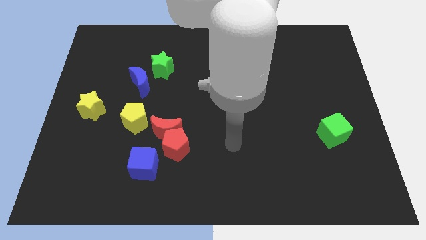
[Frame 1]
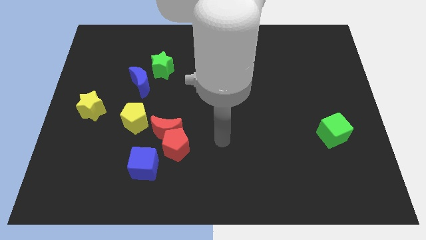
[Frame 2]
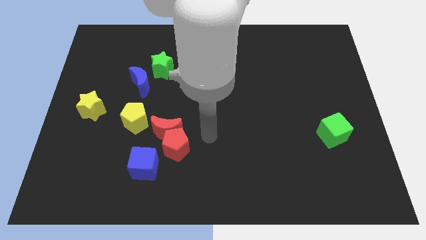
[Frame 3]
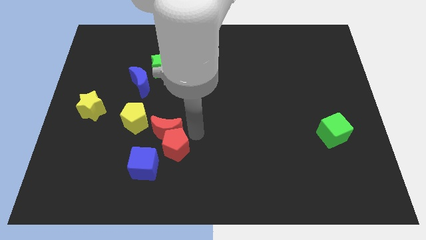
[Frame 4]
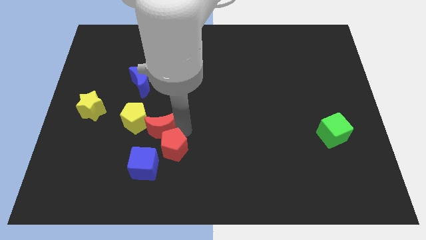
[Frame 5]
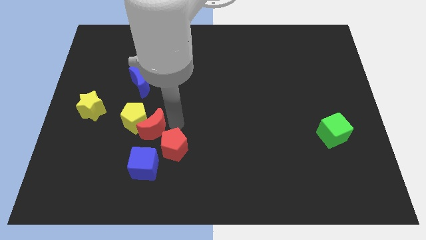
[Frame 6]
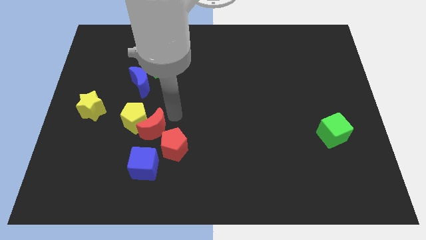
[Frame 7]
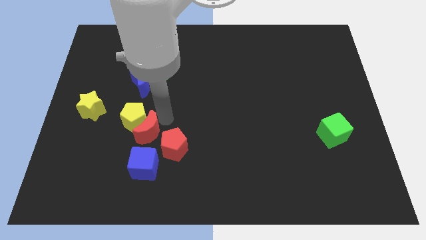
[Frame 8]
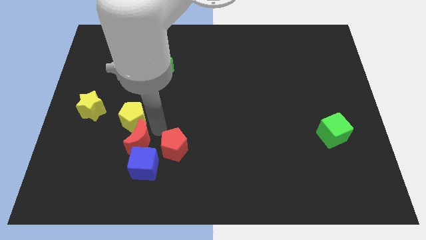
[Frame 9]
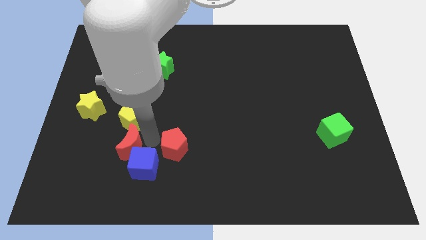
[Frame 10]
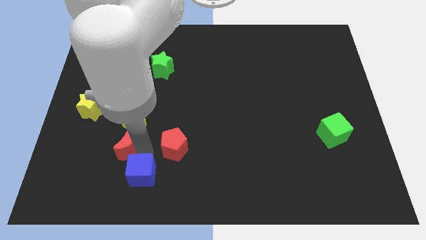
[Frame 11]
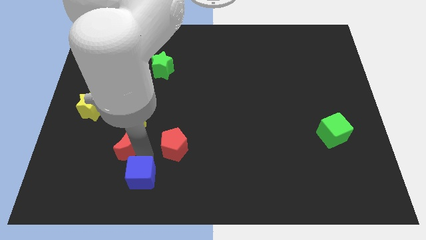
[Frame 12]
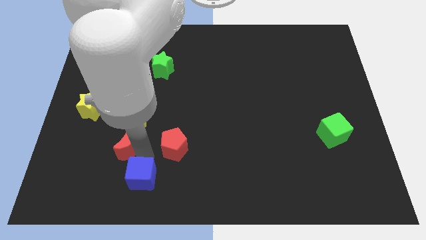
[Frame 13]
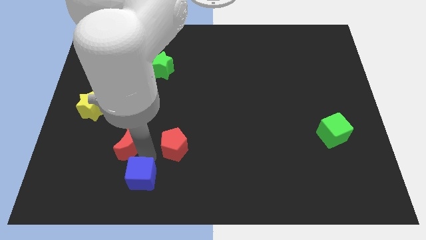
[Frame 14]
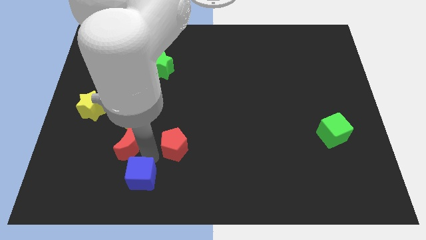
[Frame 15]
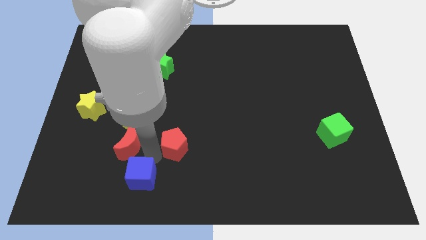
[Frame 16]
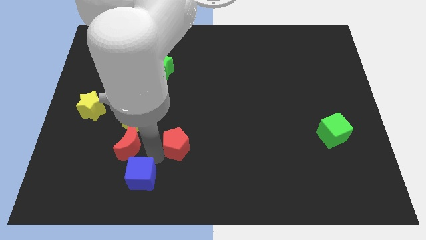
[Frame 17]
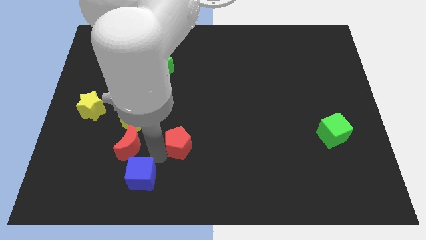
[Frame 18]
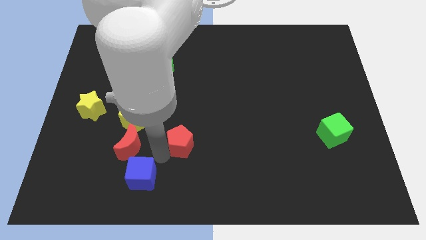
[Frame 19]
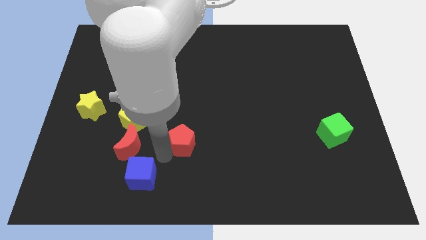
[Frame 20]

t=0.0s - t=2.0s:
separate the red pentagon from the red moon and blue cube

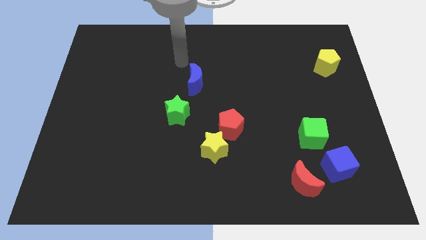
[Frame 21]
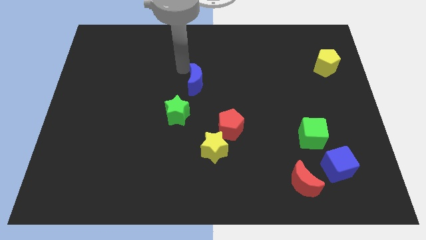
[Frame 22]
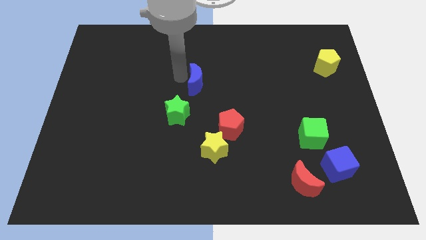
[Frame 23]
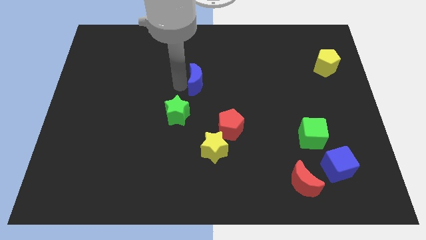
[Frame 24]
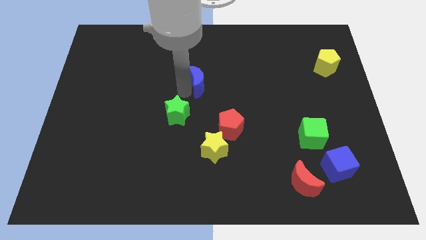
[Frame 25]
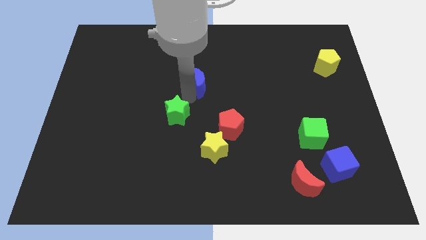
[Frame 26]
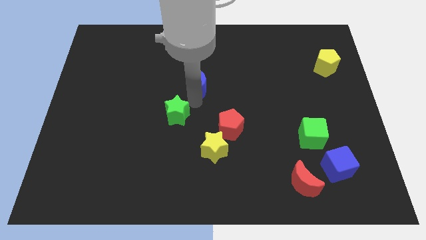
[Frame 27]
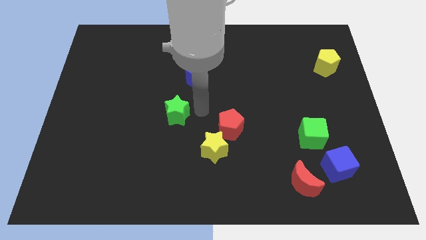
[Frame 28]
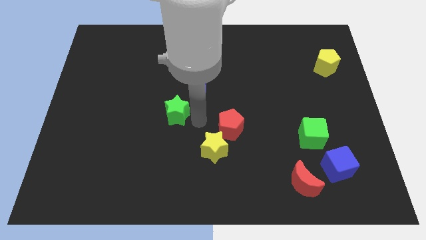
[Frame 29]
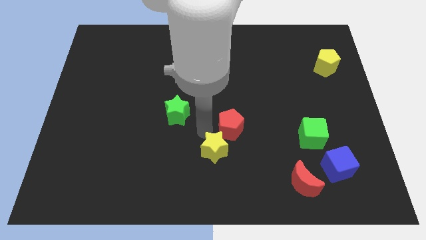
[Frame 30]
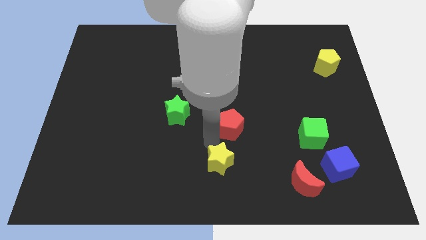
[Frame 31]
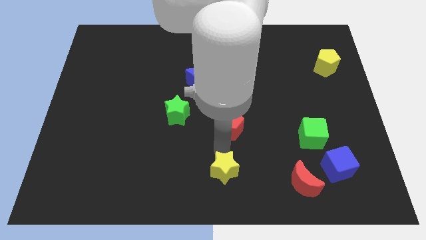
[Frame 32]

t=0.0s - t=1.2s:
separate the red pentagon from the yellow star

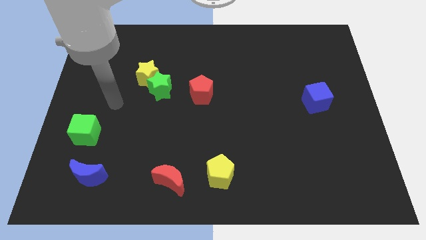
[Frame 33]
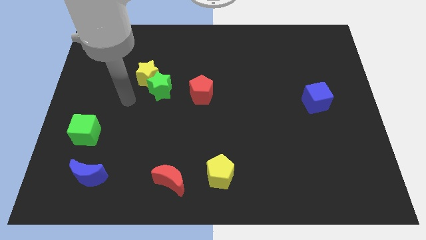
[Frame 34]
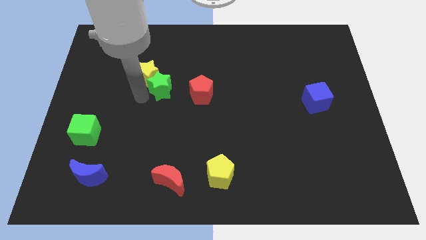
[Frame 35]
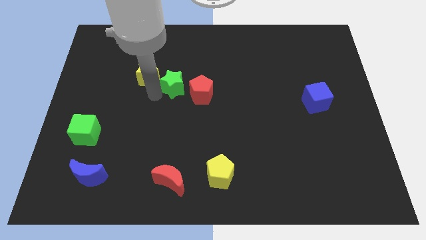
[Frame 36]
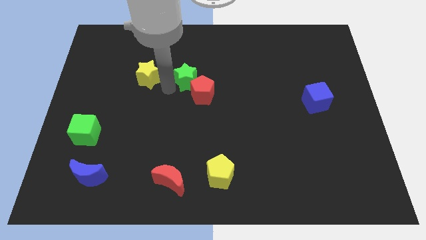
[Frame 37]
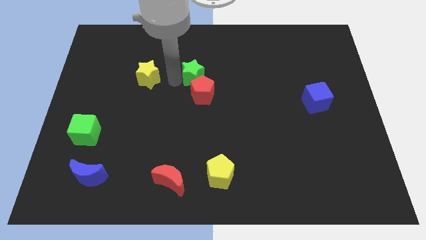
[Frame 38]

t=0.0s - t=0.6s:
separate the yellow star from the green star

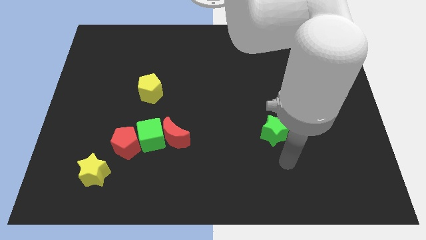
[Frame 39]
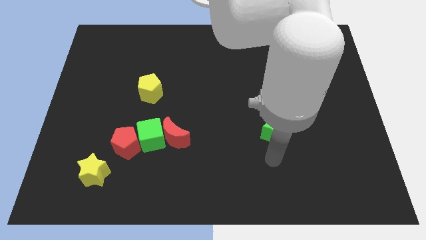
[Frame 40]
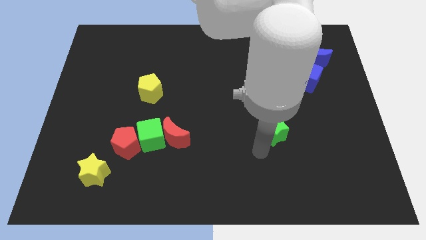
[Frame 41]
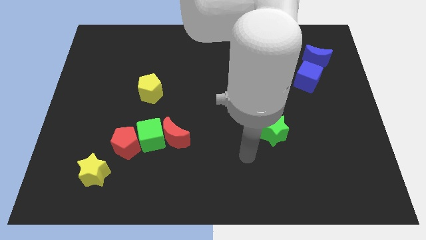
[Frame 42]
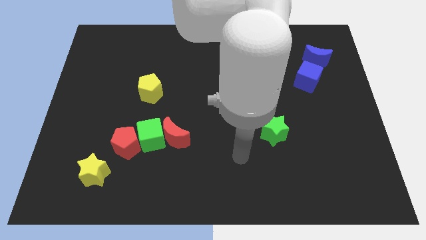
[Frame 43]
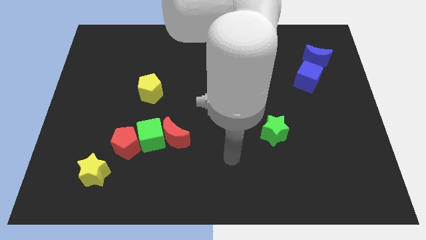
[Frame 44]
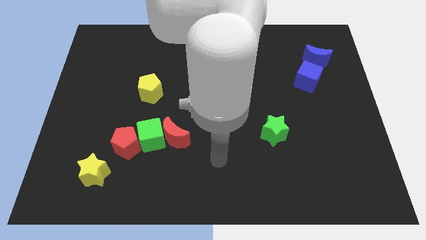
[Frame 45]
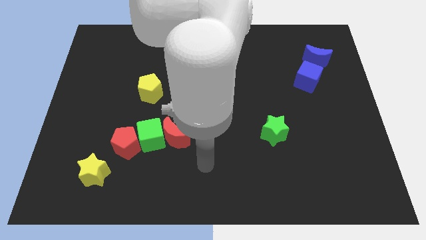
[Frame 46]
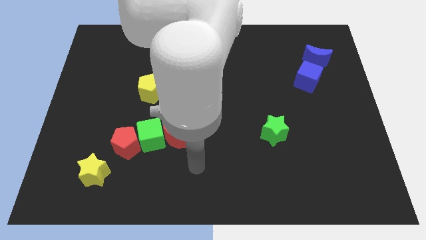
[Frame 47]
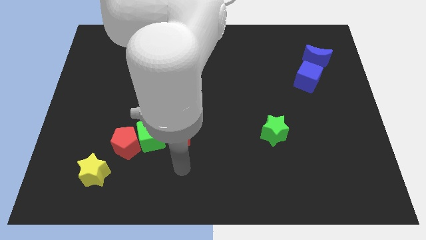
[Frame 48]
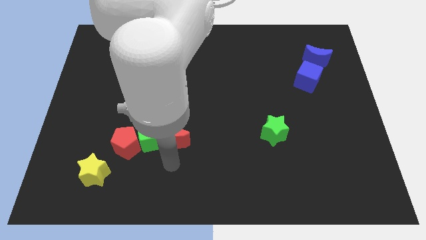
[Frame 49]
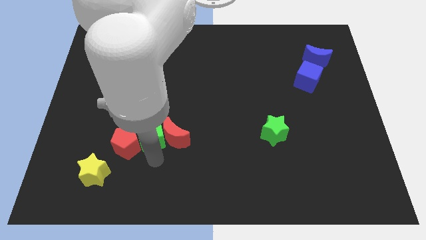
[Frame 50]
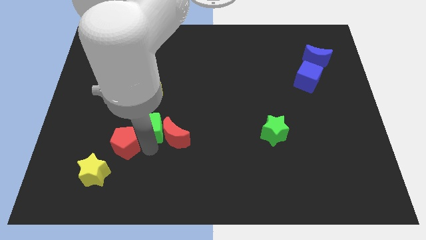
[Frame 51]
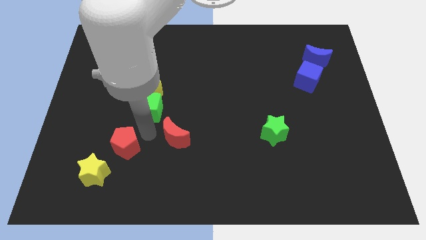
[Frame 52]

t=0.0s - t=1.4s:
separate the red moon from the green cube

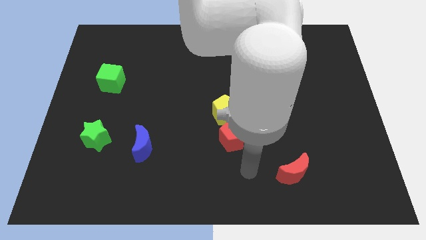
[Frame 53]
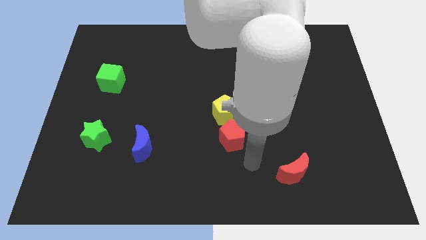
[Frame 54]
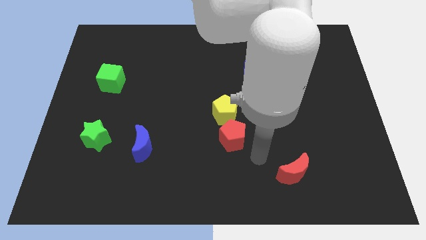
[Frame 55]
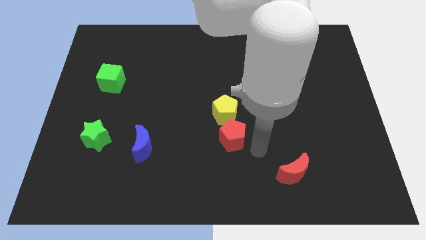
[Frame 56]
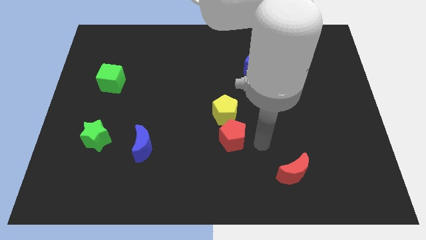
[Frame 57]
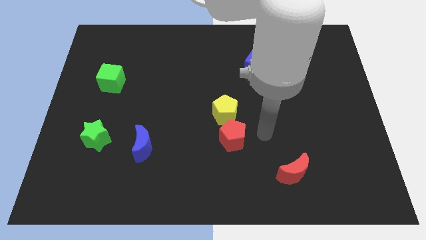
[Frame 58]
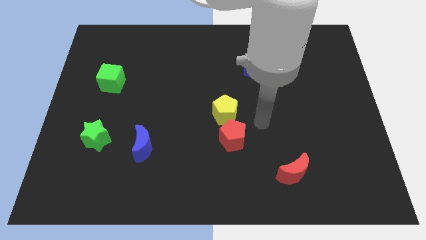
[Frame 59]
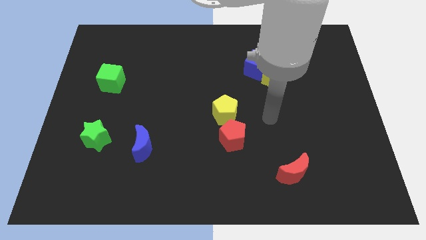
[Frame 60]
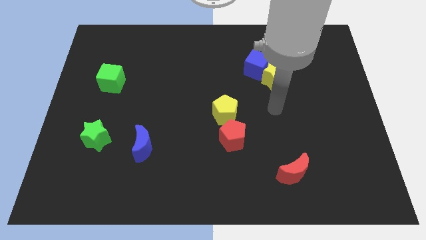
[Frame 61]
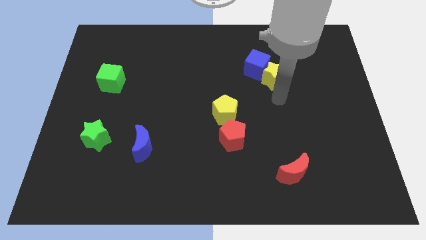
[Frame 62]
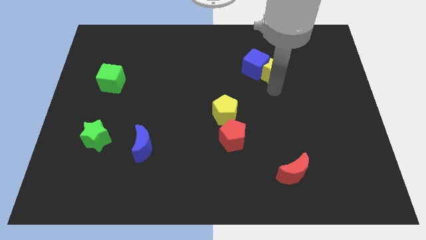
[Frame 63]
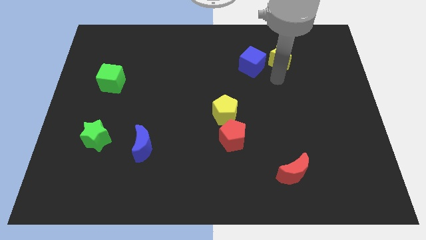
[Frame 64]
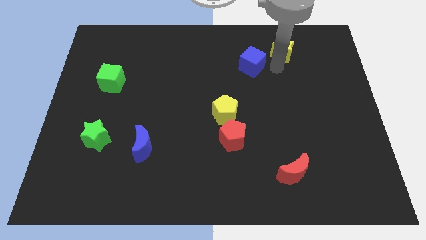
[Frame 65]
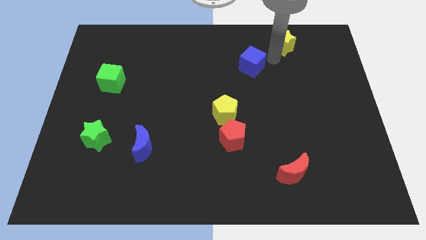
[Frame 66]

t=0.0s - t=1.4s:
separate the blue cube from the yellow star

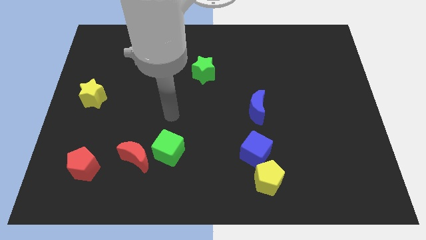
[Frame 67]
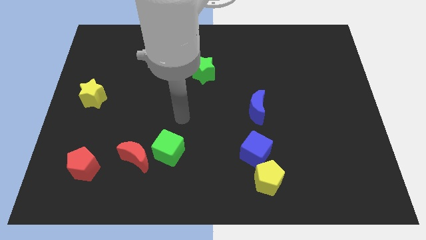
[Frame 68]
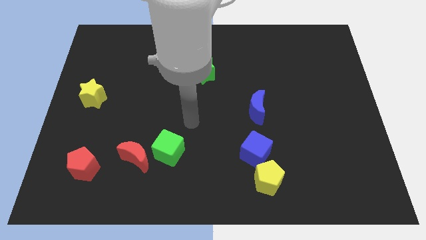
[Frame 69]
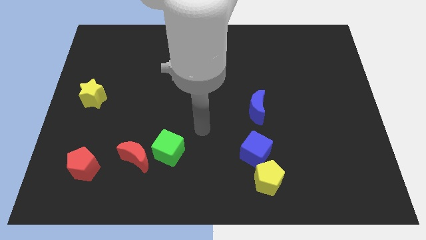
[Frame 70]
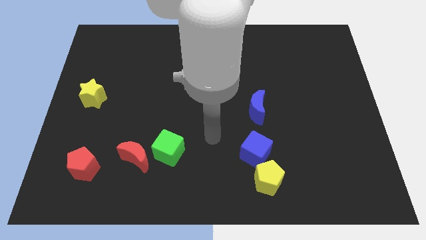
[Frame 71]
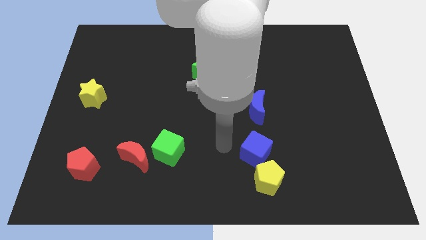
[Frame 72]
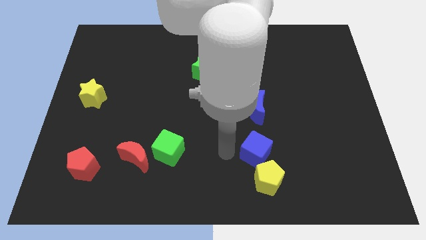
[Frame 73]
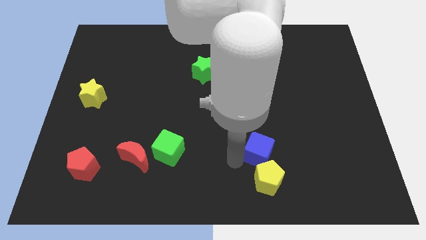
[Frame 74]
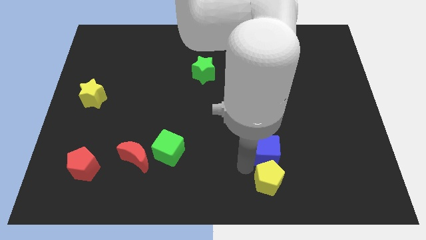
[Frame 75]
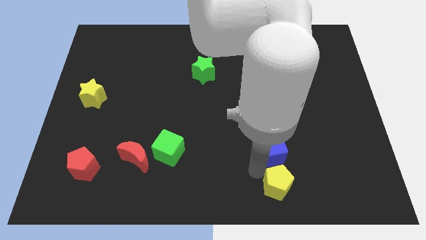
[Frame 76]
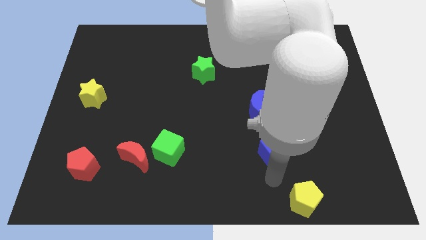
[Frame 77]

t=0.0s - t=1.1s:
separate the blue cube from the yellow pentagon

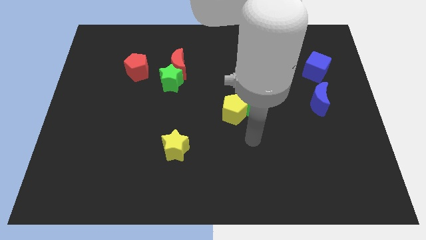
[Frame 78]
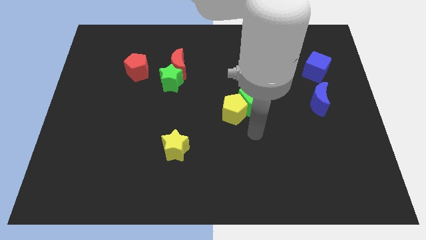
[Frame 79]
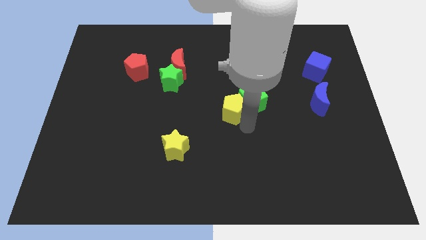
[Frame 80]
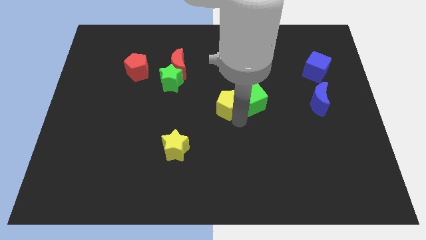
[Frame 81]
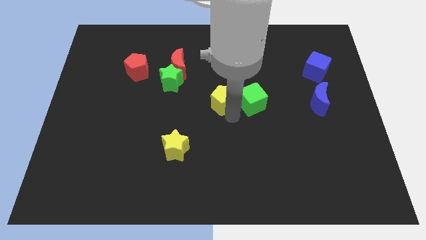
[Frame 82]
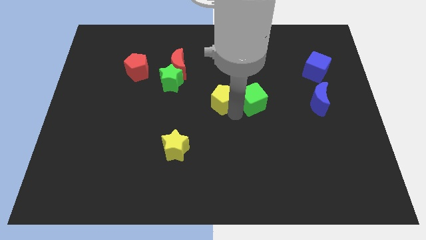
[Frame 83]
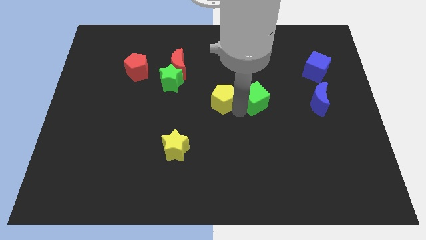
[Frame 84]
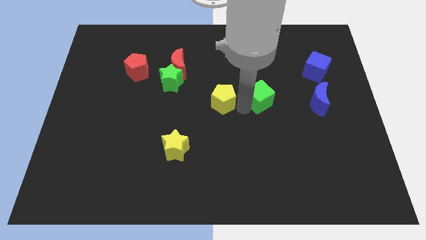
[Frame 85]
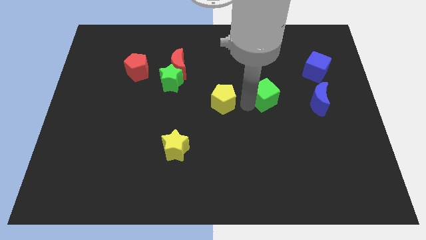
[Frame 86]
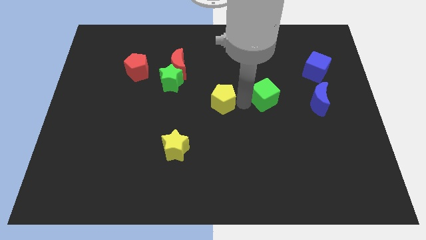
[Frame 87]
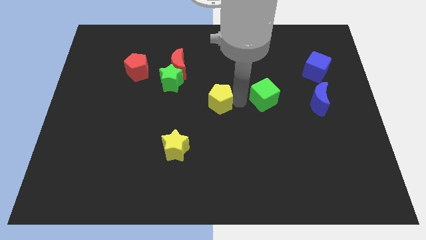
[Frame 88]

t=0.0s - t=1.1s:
move the green cube away from the yellow pentagon

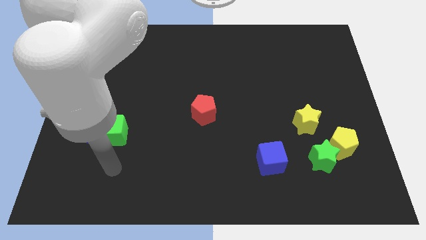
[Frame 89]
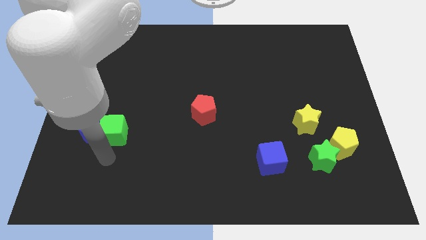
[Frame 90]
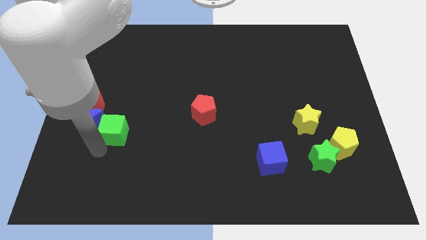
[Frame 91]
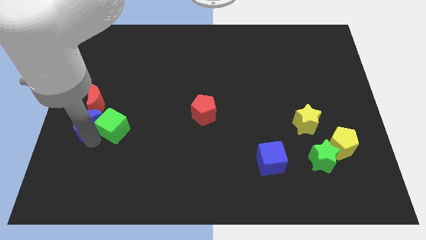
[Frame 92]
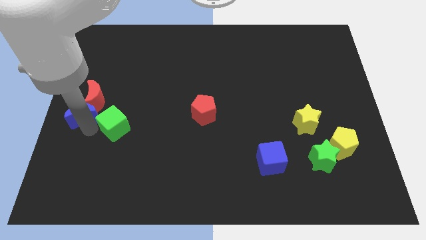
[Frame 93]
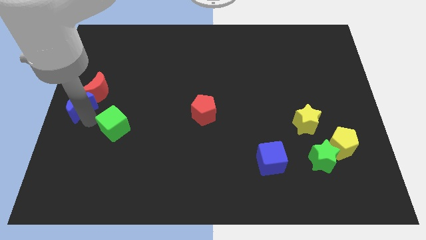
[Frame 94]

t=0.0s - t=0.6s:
move the green cube away from the blue moon
